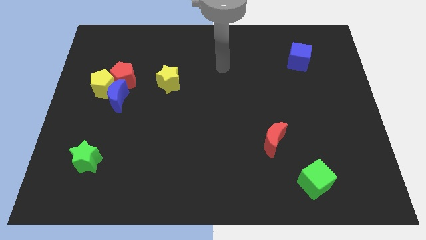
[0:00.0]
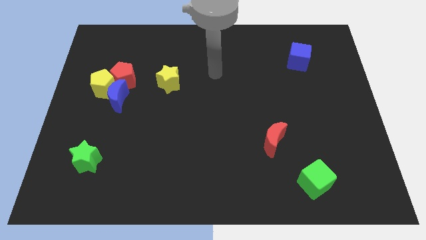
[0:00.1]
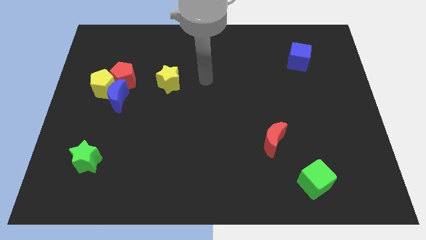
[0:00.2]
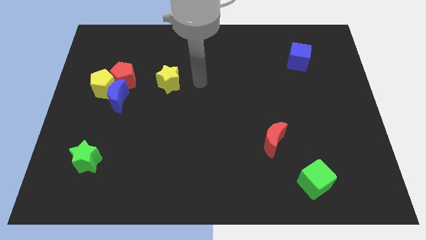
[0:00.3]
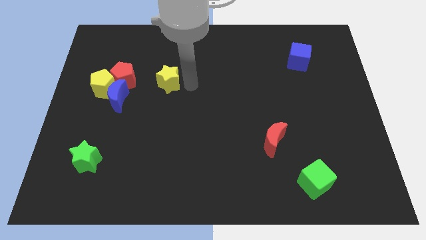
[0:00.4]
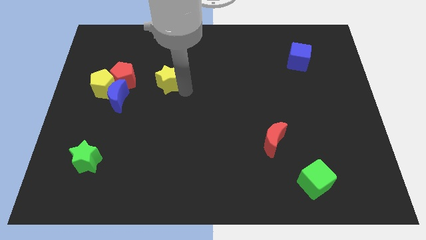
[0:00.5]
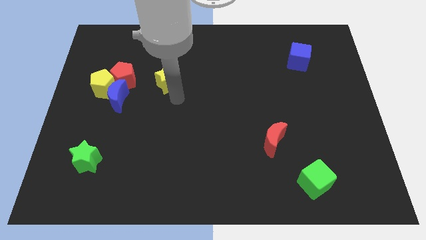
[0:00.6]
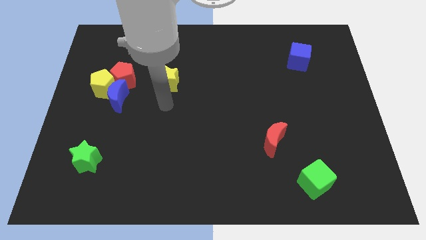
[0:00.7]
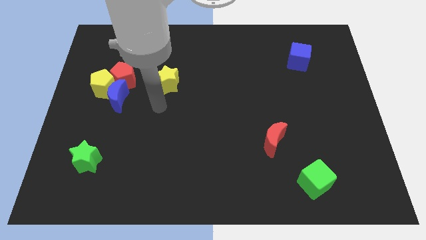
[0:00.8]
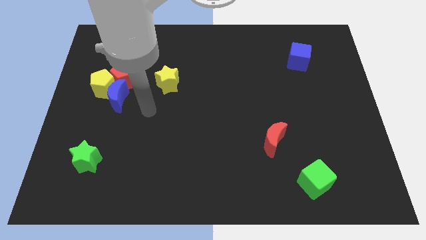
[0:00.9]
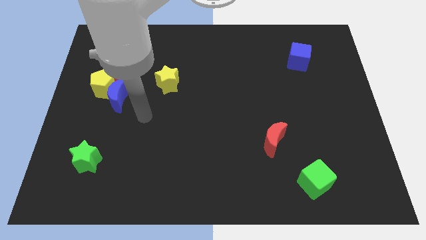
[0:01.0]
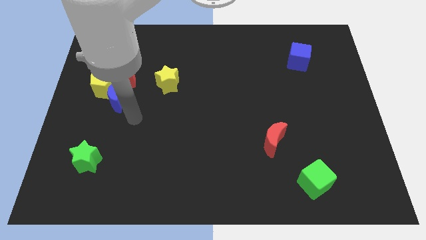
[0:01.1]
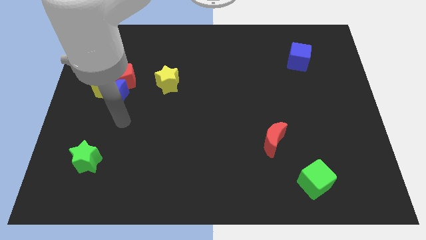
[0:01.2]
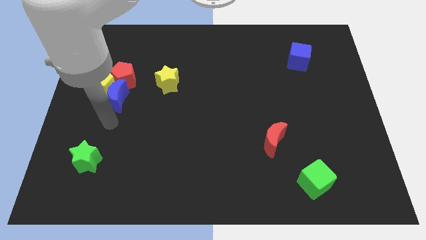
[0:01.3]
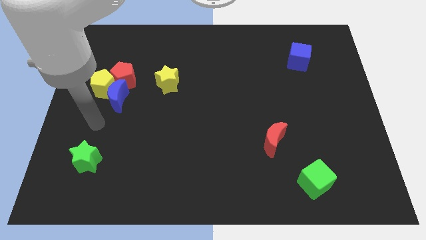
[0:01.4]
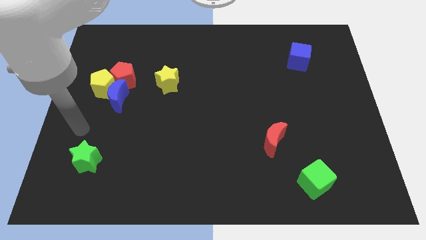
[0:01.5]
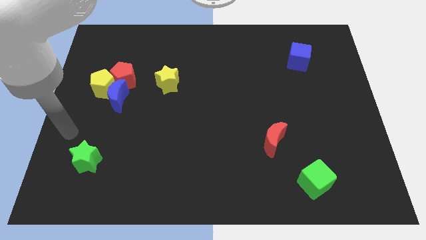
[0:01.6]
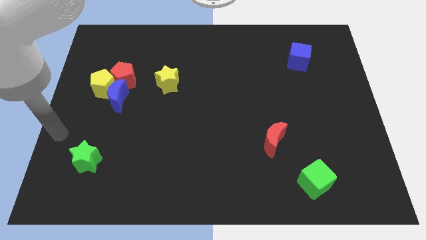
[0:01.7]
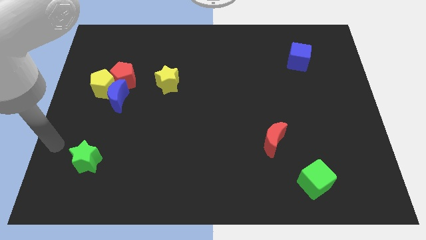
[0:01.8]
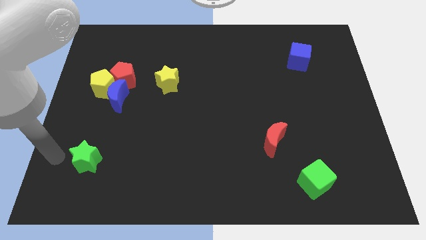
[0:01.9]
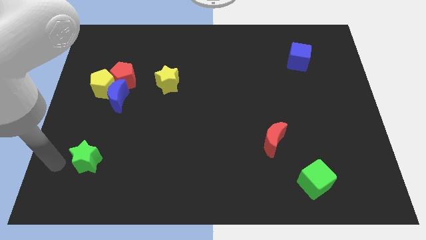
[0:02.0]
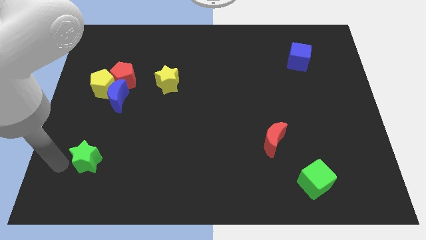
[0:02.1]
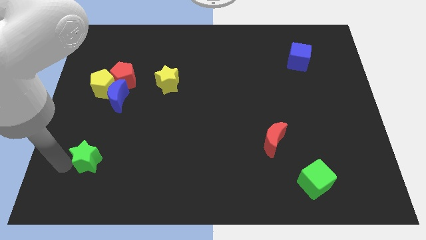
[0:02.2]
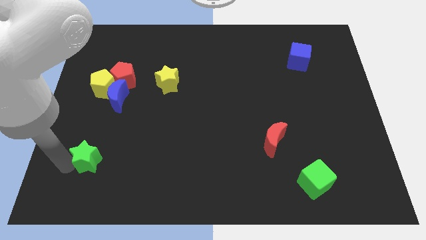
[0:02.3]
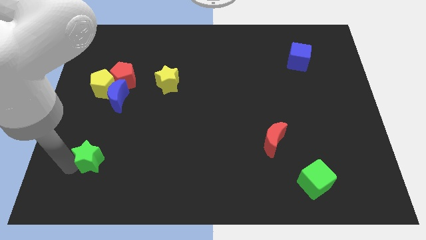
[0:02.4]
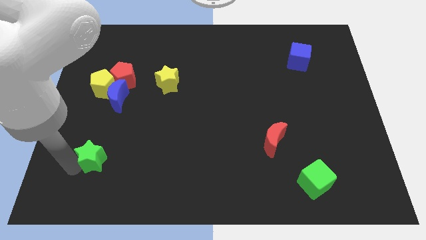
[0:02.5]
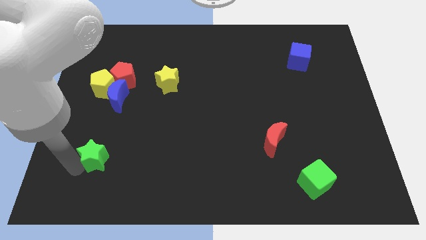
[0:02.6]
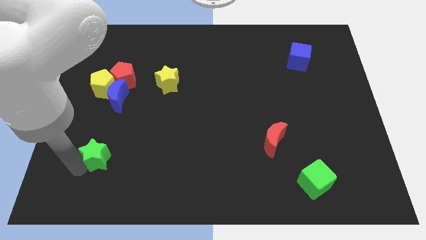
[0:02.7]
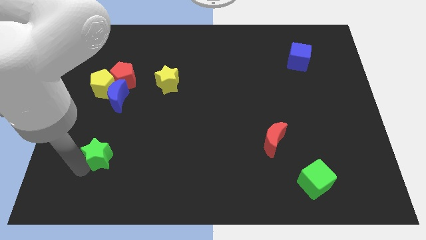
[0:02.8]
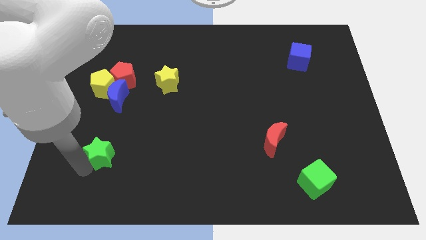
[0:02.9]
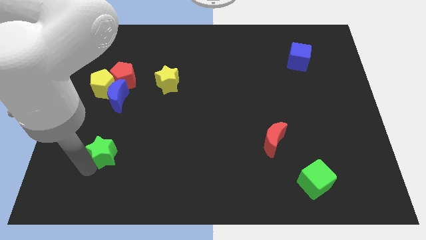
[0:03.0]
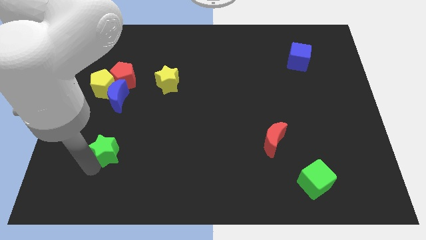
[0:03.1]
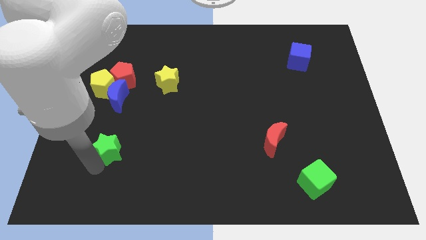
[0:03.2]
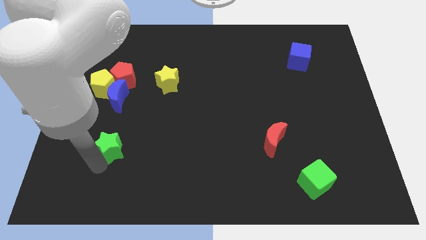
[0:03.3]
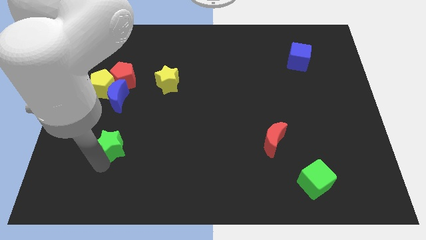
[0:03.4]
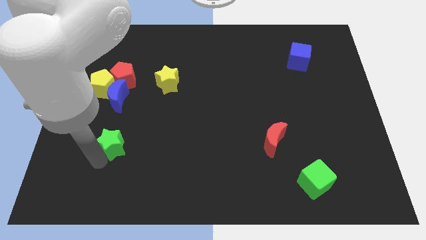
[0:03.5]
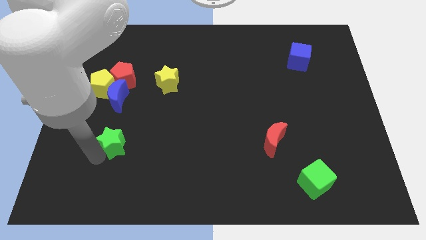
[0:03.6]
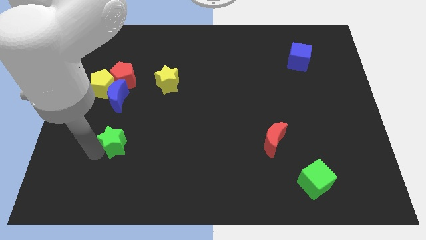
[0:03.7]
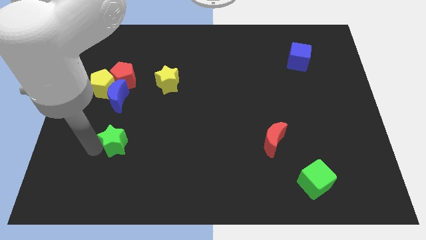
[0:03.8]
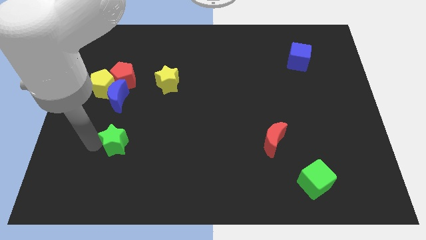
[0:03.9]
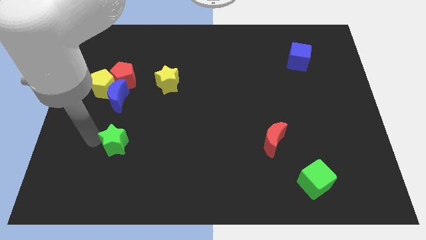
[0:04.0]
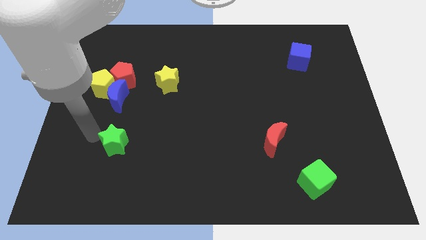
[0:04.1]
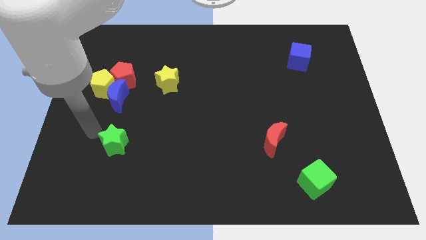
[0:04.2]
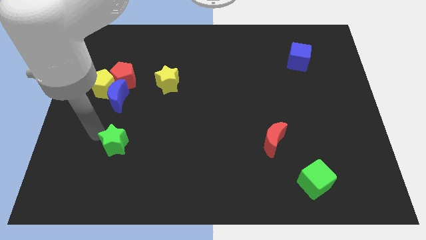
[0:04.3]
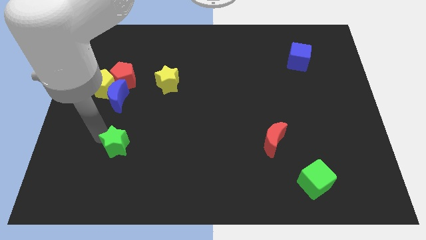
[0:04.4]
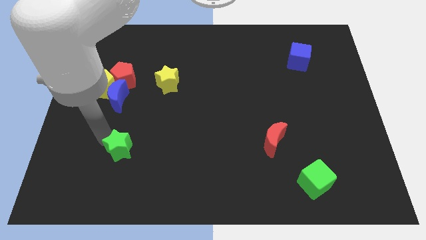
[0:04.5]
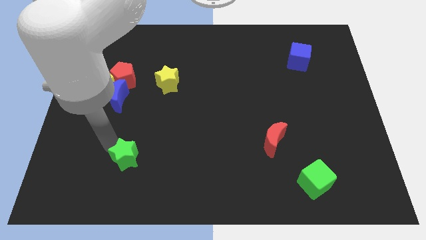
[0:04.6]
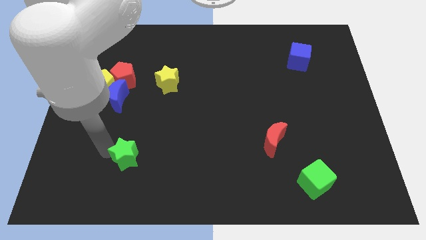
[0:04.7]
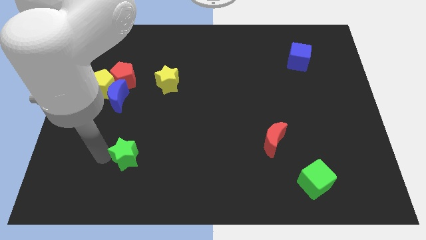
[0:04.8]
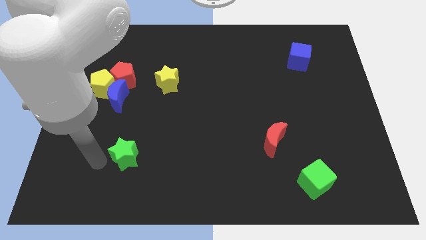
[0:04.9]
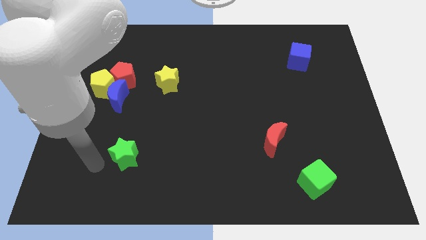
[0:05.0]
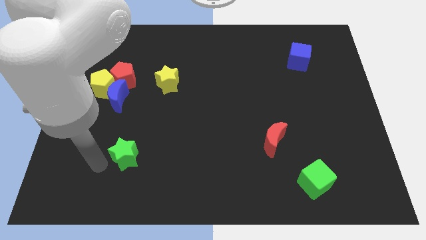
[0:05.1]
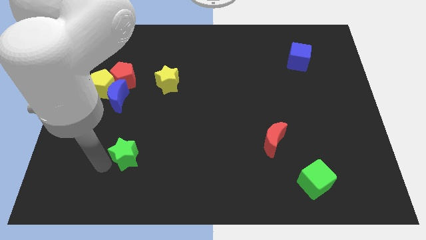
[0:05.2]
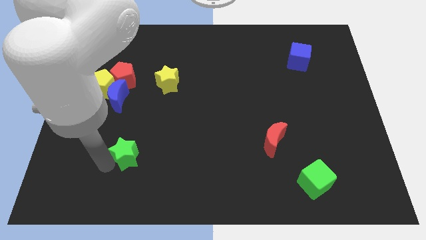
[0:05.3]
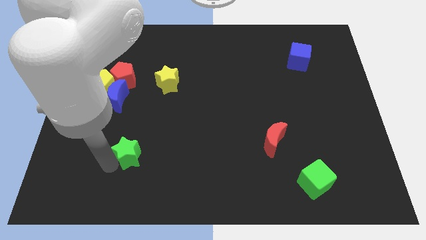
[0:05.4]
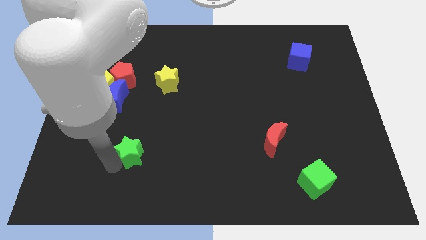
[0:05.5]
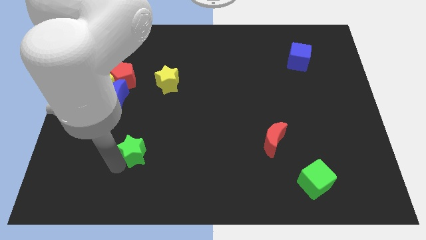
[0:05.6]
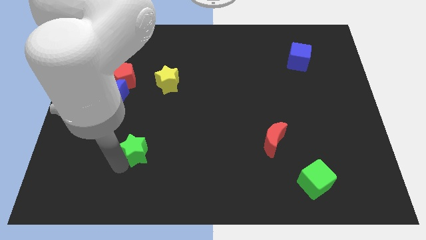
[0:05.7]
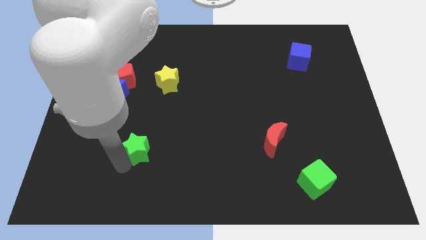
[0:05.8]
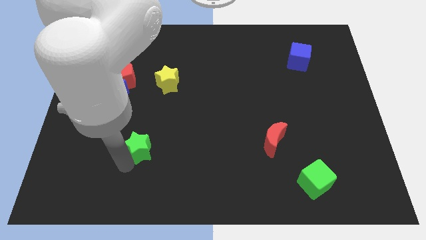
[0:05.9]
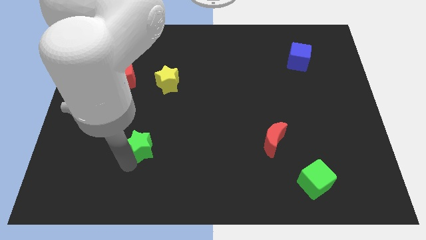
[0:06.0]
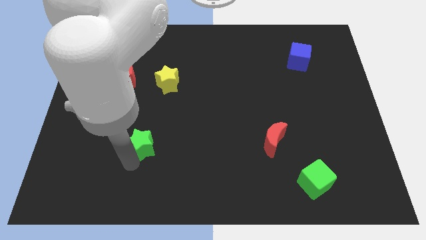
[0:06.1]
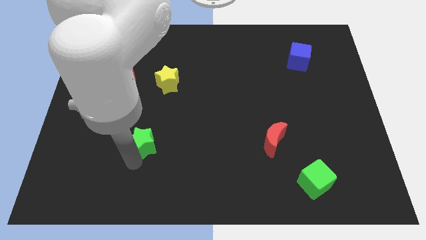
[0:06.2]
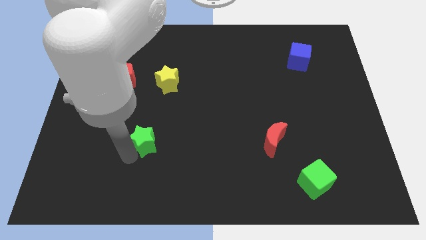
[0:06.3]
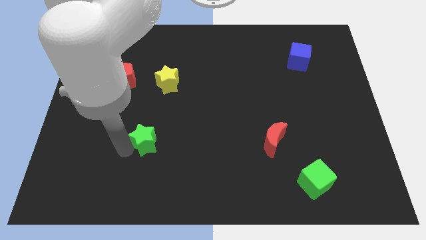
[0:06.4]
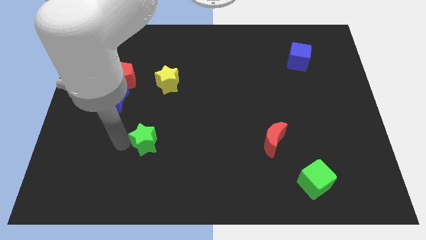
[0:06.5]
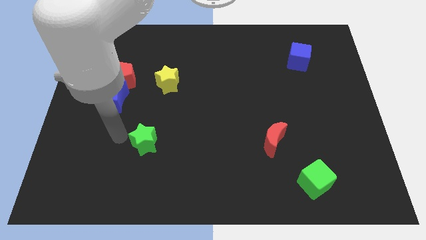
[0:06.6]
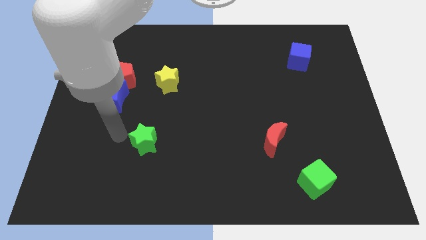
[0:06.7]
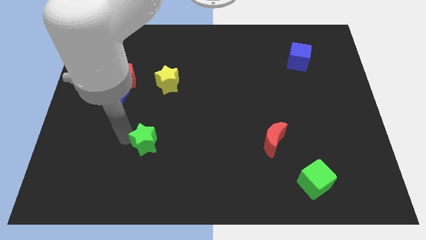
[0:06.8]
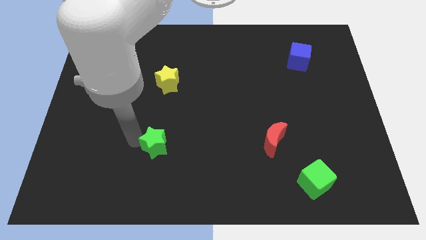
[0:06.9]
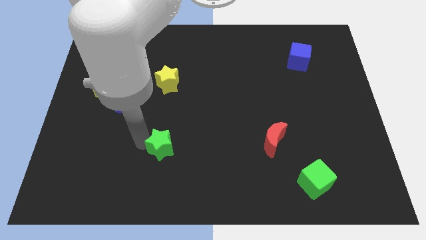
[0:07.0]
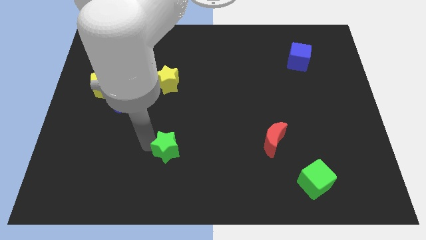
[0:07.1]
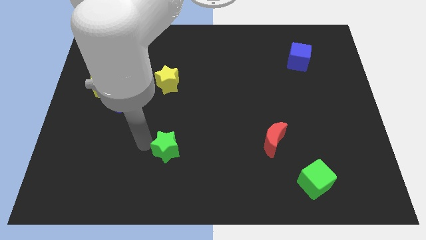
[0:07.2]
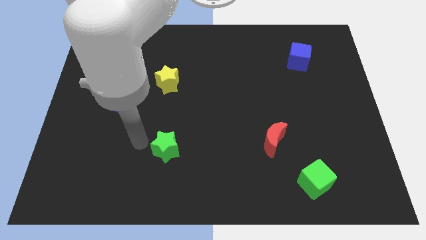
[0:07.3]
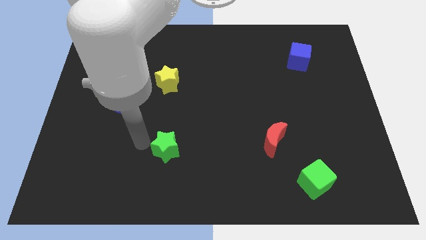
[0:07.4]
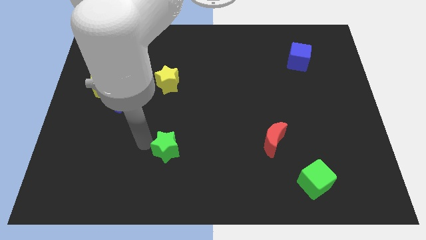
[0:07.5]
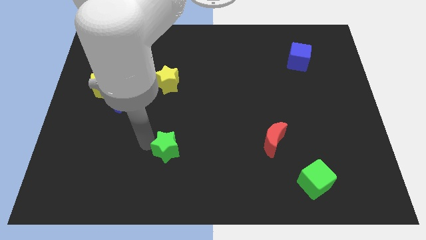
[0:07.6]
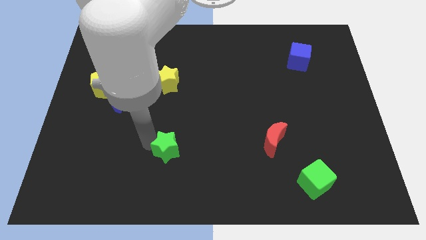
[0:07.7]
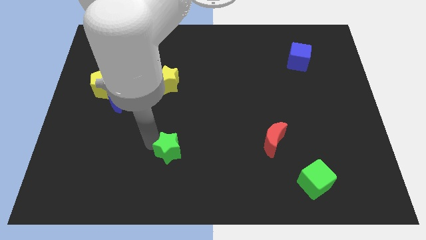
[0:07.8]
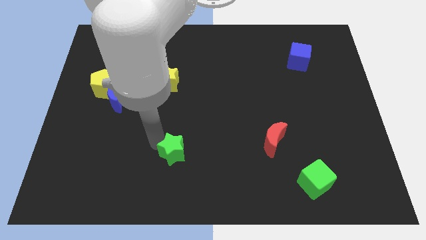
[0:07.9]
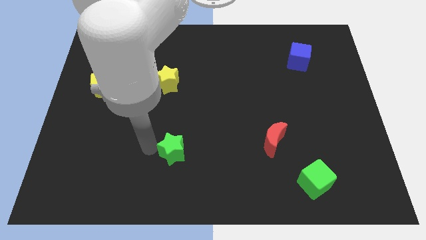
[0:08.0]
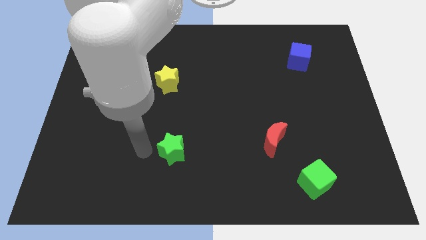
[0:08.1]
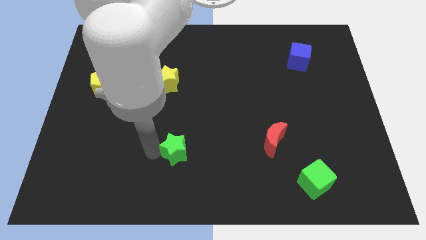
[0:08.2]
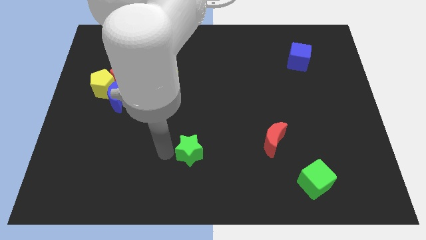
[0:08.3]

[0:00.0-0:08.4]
move the green star to the right
